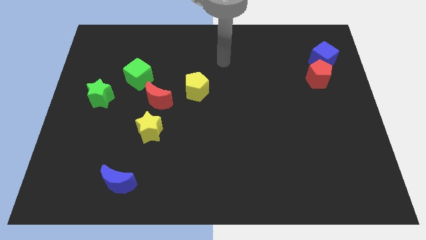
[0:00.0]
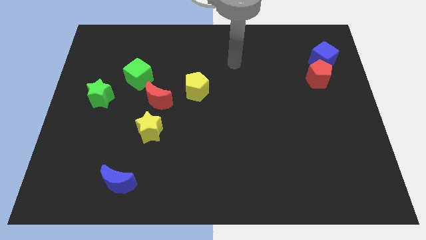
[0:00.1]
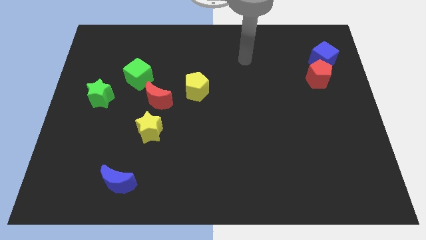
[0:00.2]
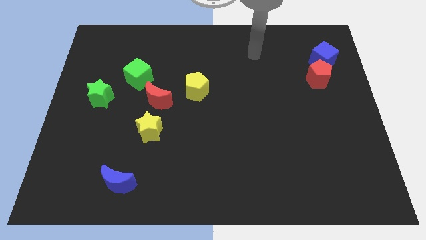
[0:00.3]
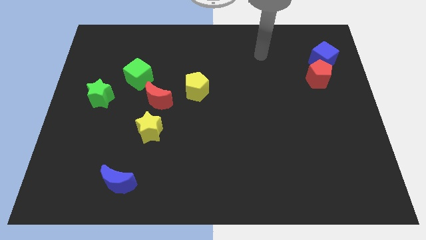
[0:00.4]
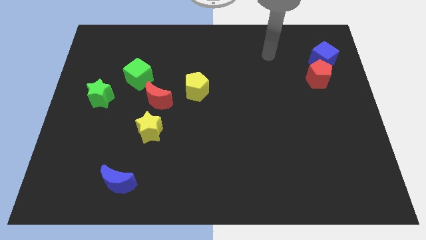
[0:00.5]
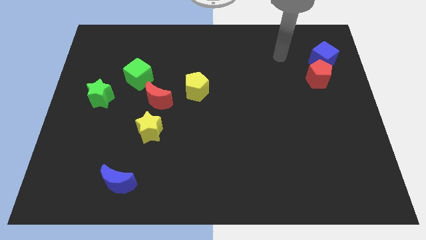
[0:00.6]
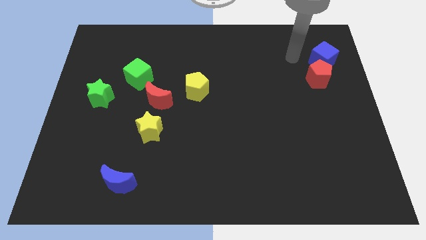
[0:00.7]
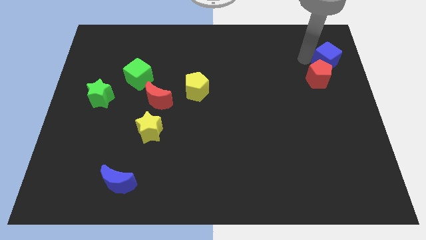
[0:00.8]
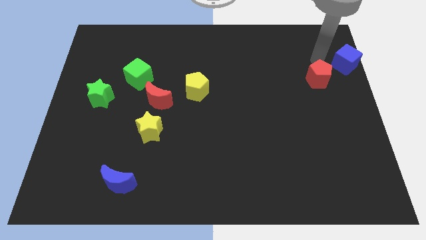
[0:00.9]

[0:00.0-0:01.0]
move the red pentagon away from the blue cube

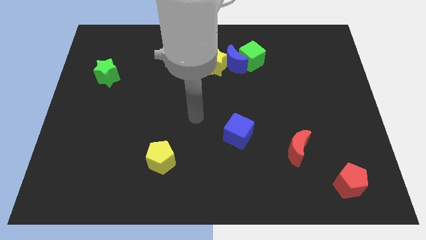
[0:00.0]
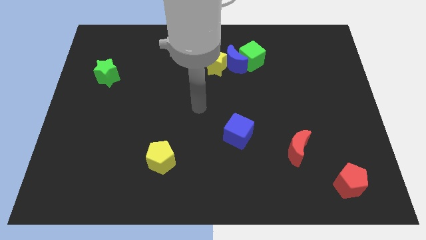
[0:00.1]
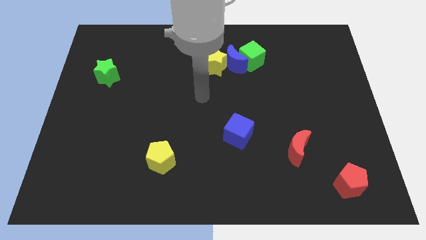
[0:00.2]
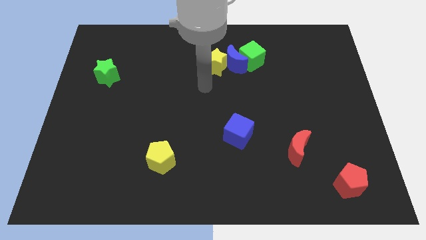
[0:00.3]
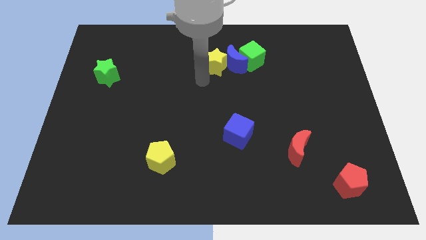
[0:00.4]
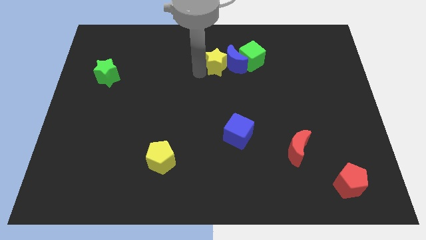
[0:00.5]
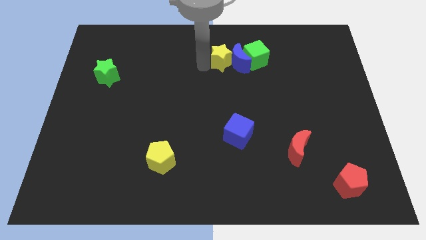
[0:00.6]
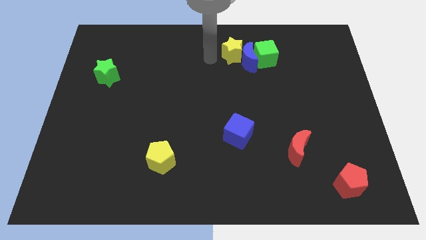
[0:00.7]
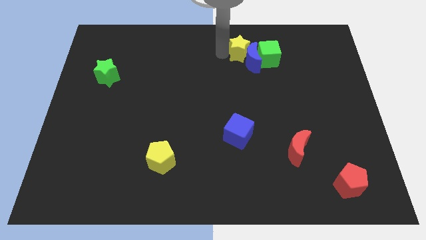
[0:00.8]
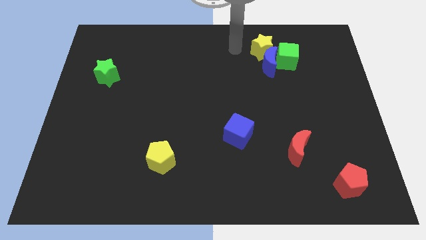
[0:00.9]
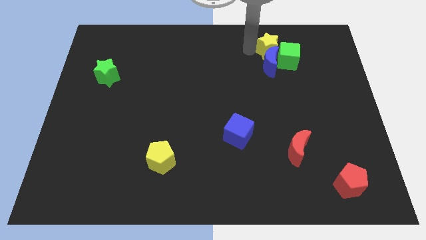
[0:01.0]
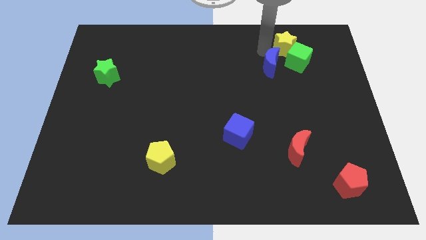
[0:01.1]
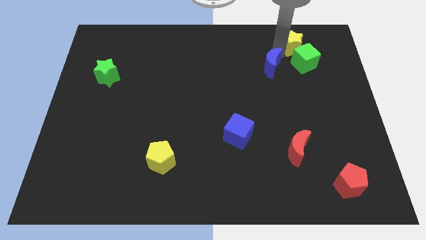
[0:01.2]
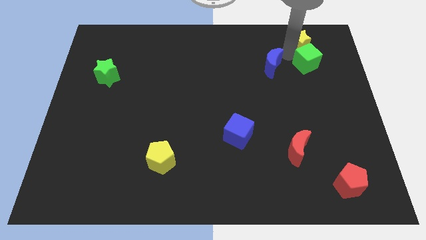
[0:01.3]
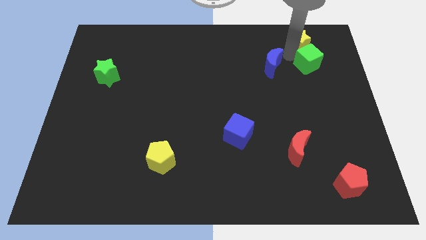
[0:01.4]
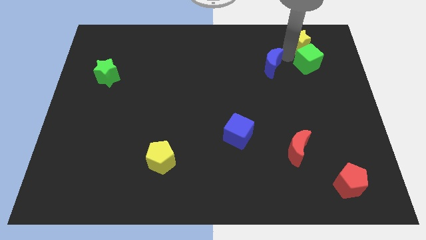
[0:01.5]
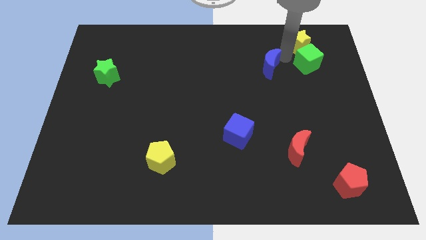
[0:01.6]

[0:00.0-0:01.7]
move the blue moon away from the green cube and yellow star

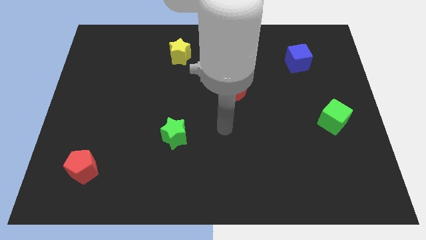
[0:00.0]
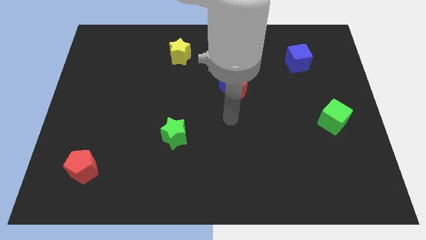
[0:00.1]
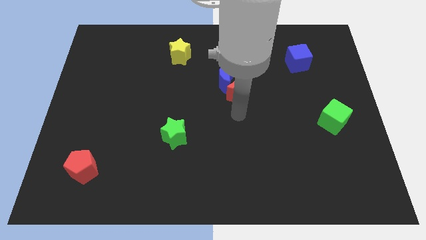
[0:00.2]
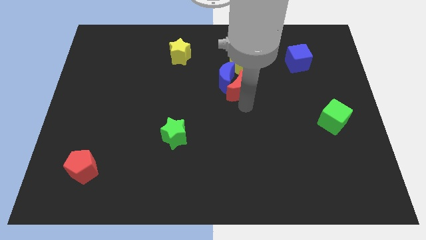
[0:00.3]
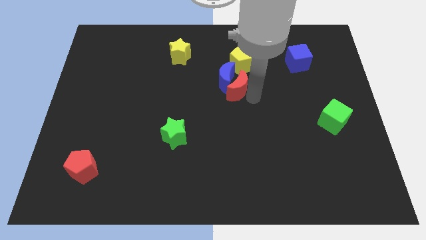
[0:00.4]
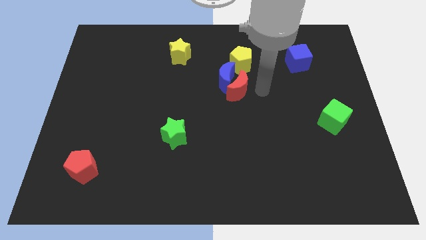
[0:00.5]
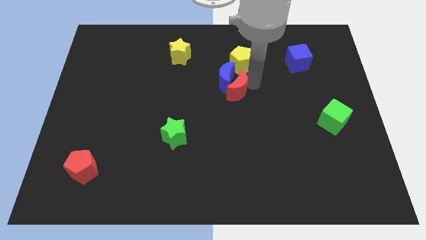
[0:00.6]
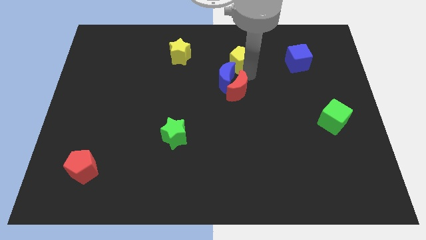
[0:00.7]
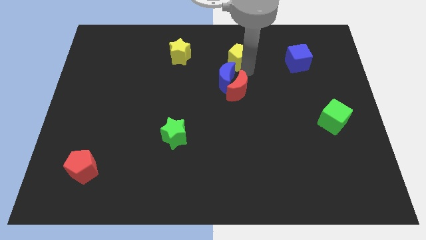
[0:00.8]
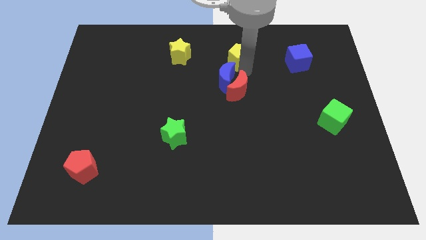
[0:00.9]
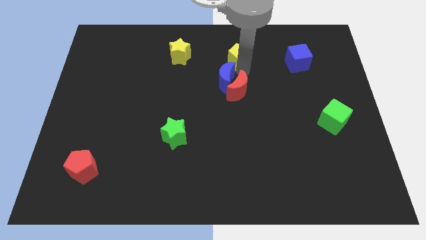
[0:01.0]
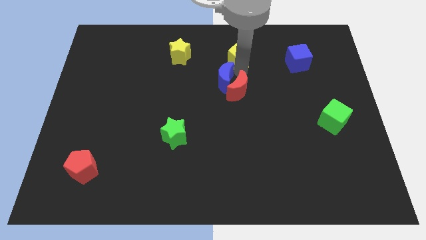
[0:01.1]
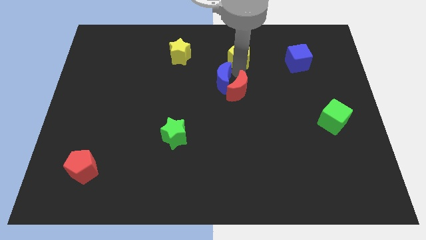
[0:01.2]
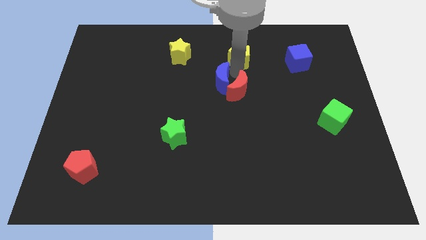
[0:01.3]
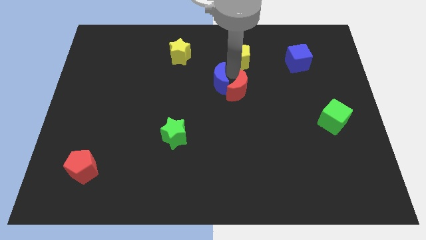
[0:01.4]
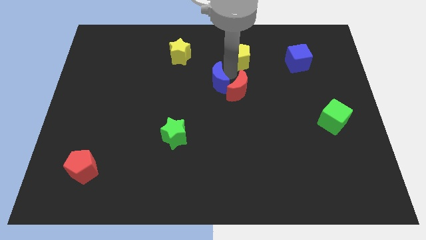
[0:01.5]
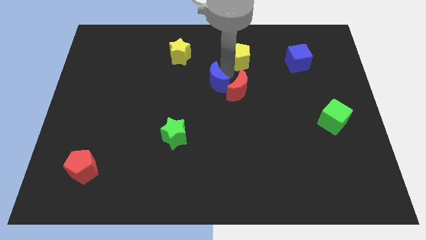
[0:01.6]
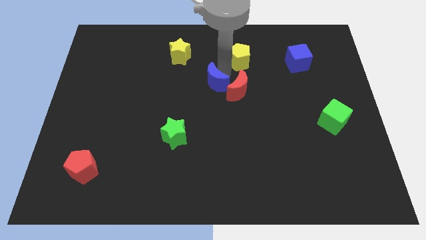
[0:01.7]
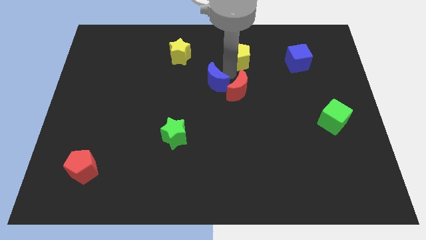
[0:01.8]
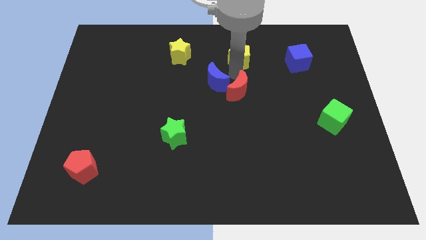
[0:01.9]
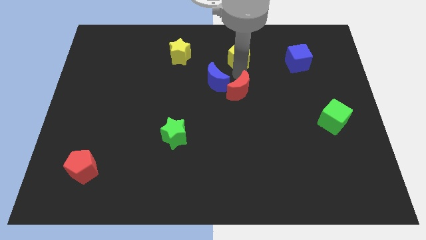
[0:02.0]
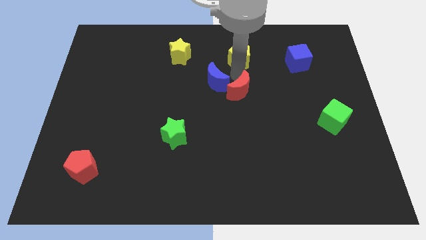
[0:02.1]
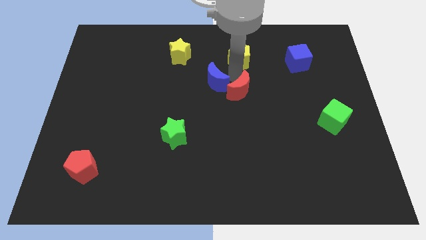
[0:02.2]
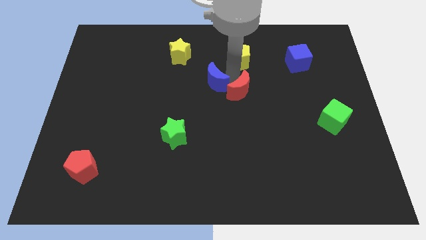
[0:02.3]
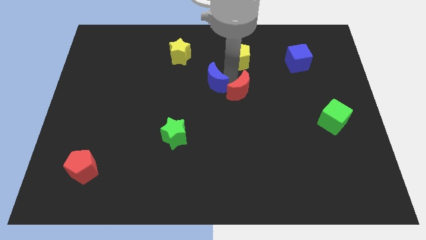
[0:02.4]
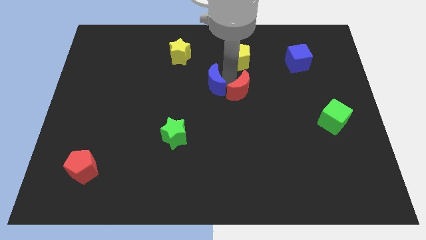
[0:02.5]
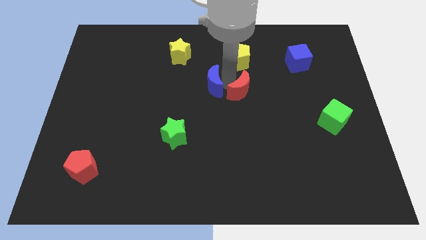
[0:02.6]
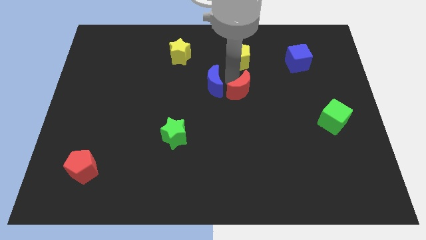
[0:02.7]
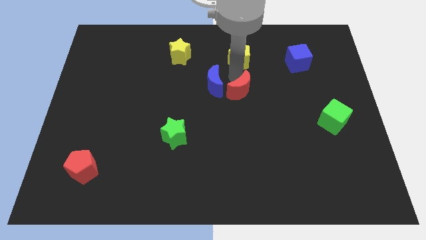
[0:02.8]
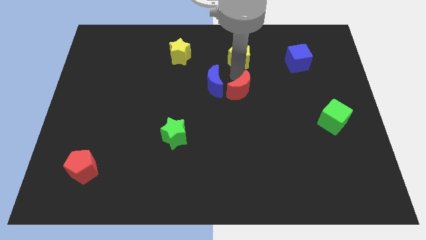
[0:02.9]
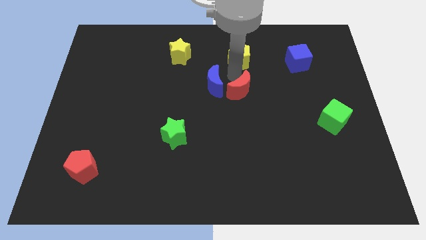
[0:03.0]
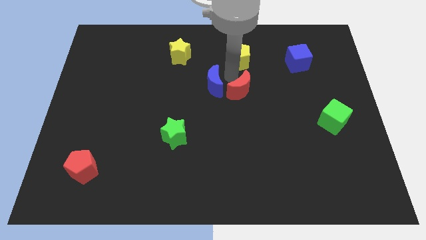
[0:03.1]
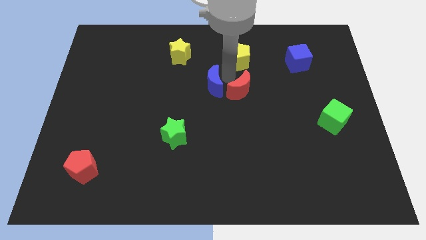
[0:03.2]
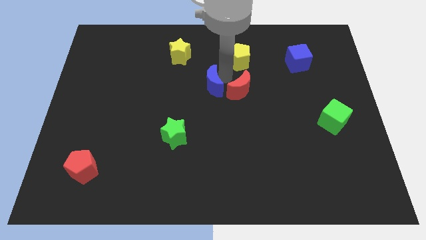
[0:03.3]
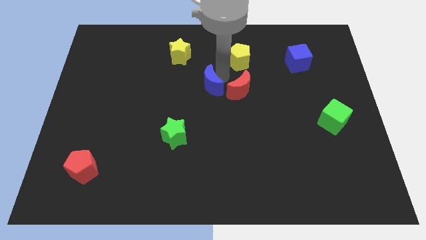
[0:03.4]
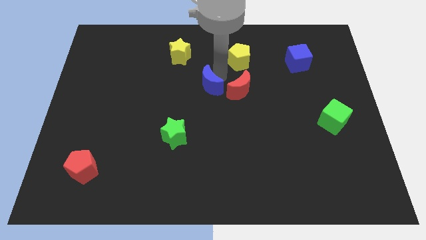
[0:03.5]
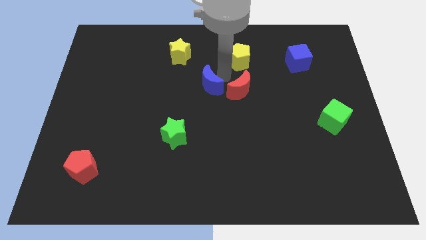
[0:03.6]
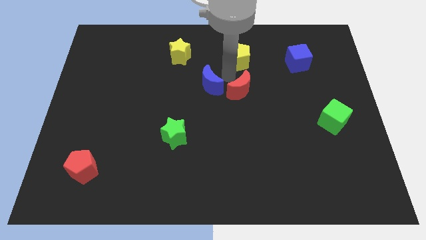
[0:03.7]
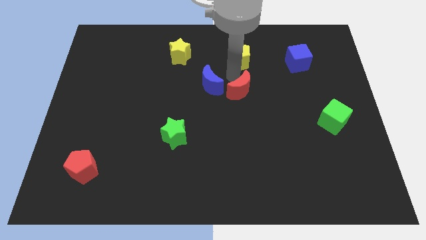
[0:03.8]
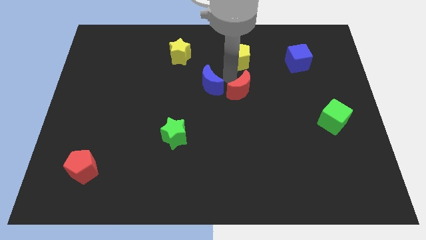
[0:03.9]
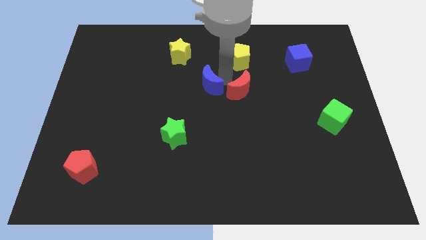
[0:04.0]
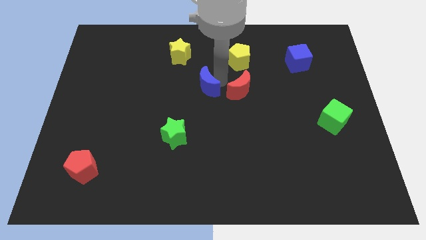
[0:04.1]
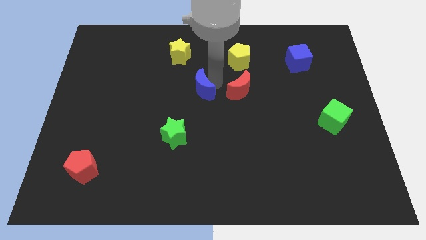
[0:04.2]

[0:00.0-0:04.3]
pull the blue moon apart from the red moon and yellow pentagon

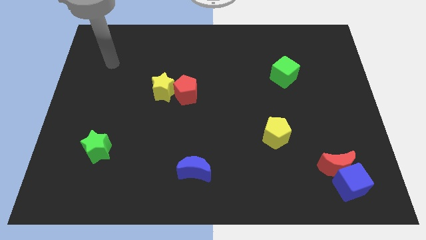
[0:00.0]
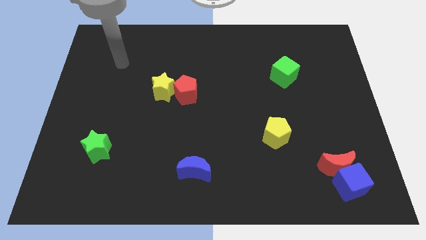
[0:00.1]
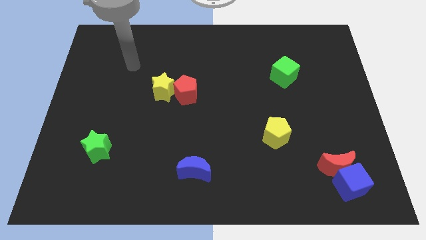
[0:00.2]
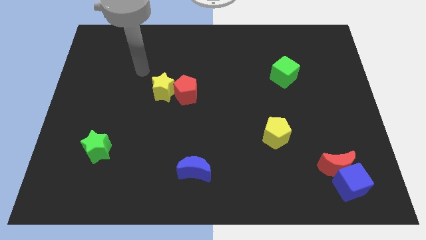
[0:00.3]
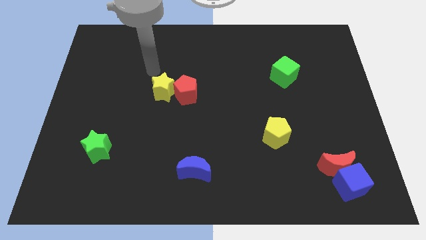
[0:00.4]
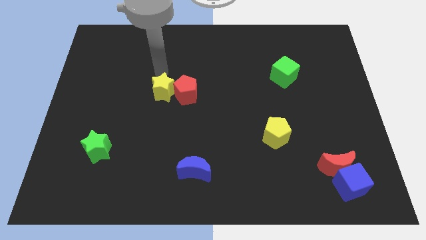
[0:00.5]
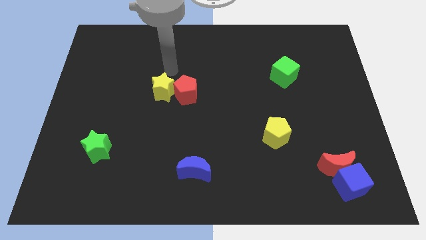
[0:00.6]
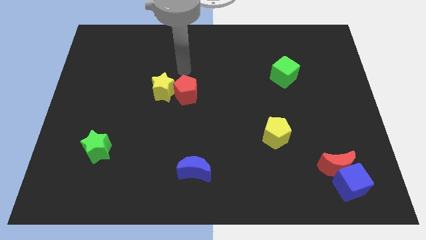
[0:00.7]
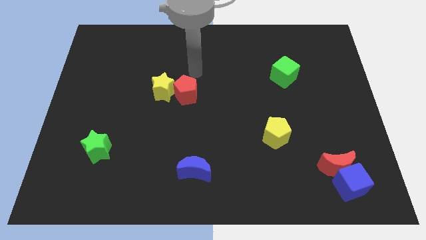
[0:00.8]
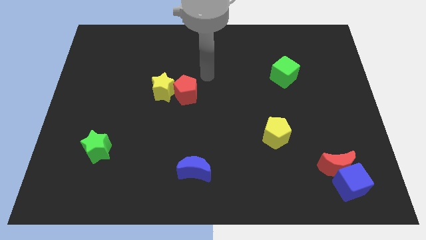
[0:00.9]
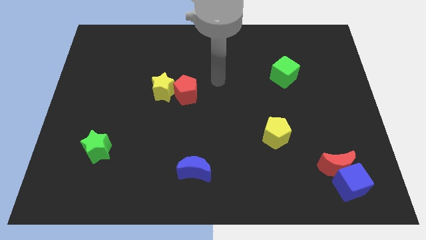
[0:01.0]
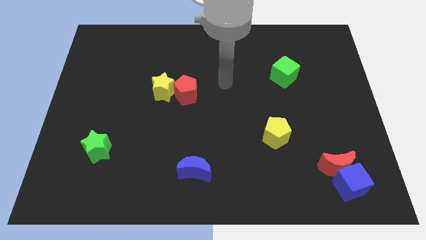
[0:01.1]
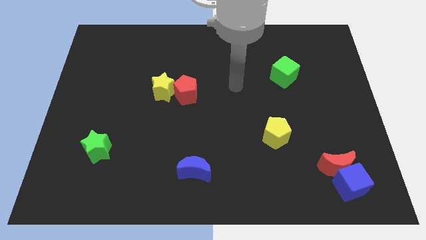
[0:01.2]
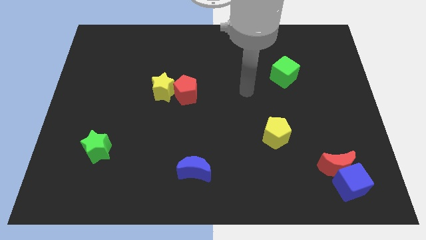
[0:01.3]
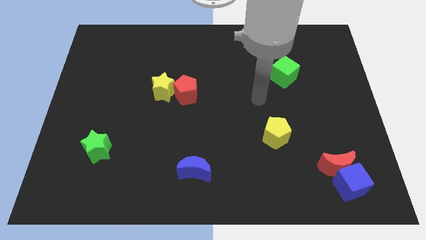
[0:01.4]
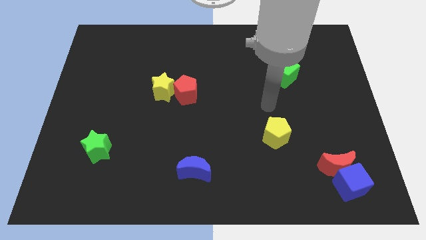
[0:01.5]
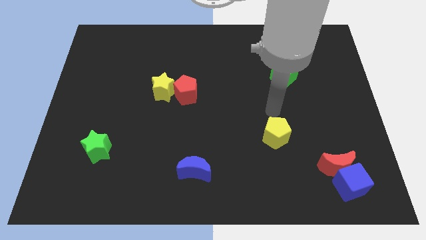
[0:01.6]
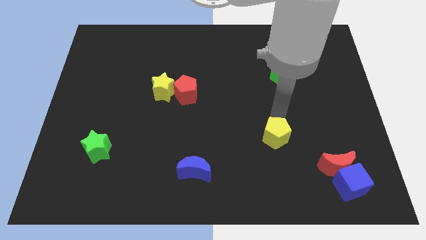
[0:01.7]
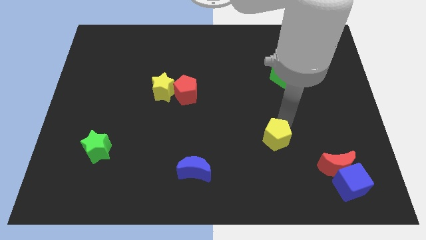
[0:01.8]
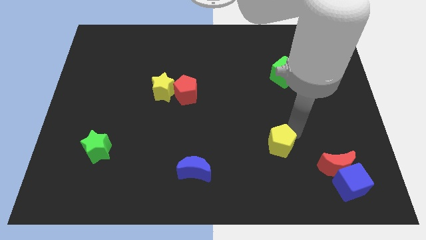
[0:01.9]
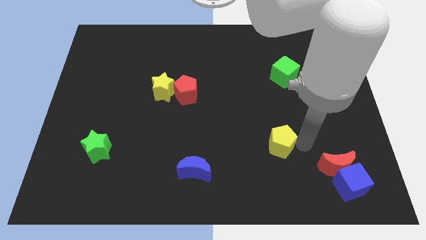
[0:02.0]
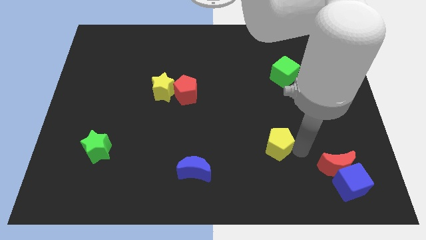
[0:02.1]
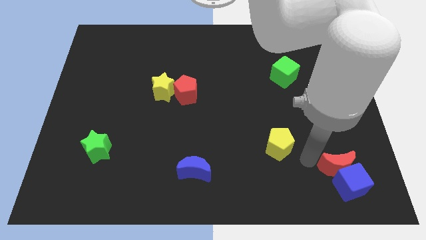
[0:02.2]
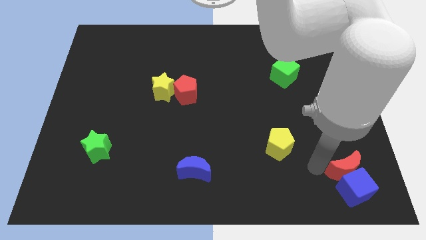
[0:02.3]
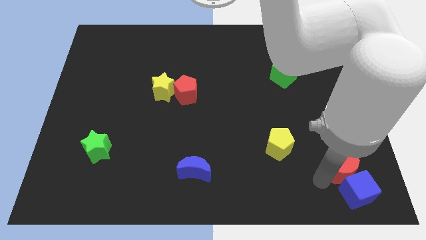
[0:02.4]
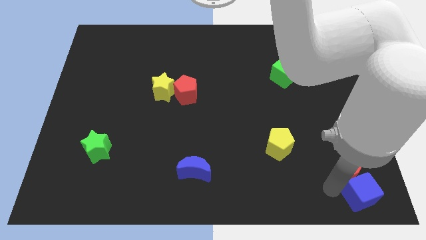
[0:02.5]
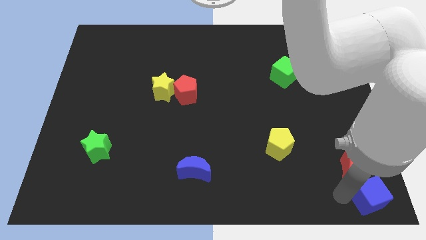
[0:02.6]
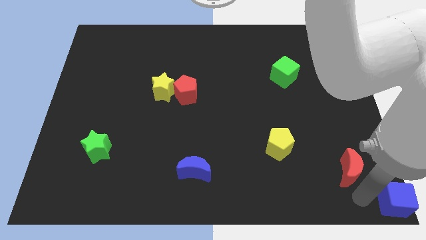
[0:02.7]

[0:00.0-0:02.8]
move the red moon away from the blue cube
